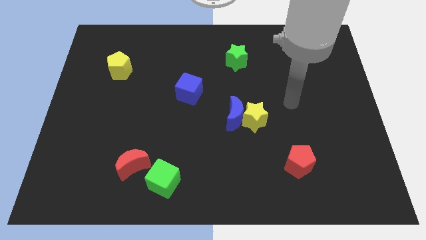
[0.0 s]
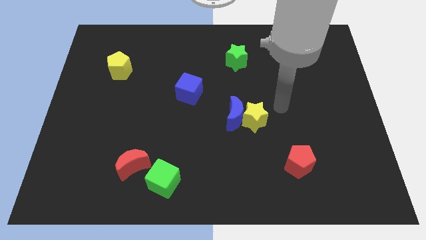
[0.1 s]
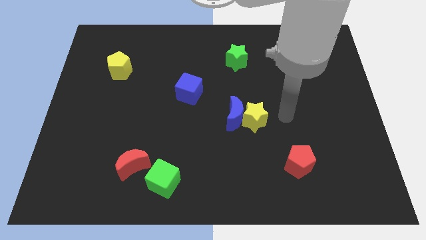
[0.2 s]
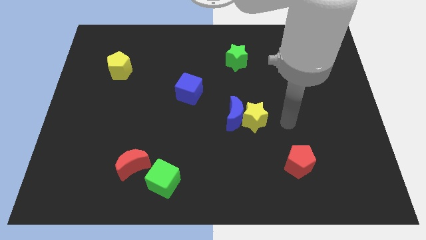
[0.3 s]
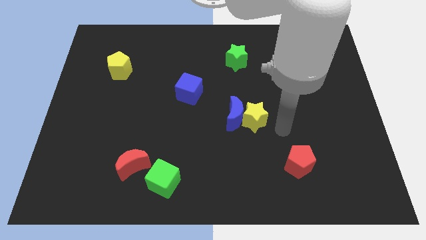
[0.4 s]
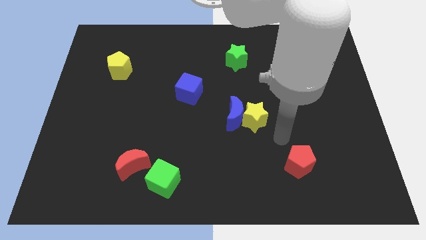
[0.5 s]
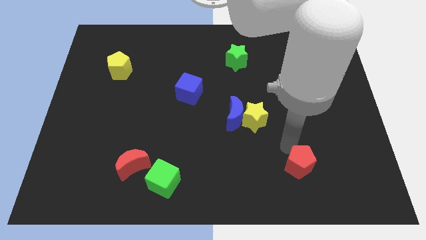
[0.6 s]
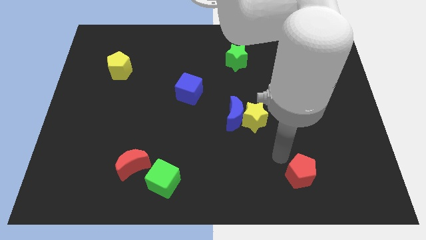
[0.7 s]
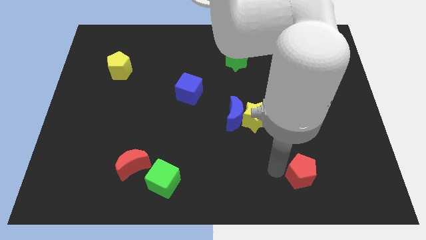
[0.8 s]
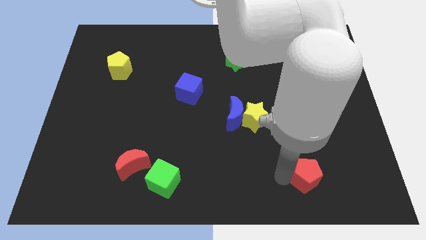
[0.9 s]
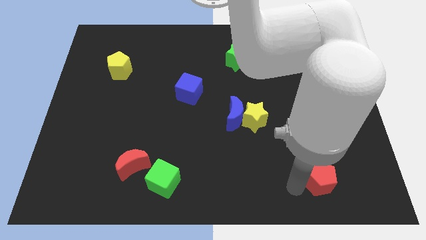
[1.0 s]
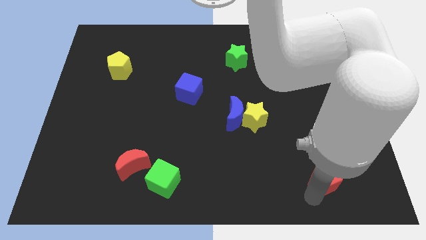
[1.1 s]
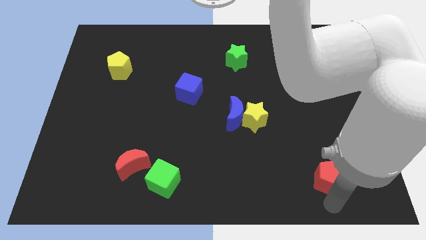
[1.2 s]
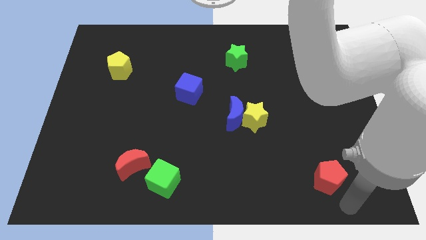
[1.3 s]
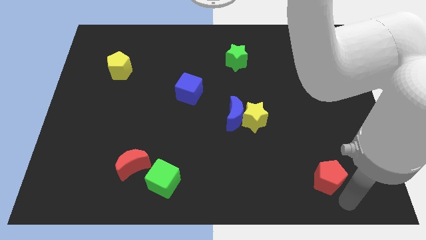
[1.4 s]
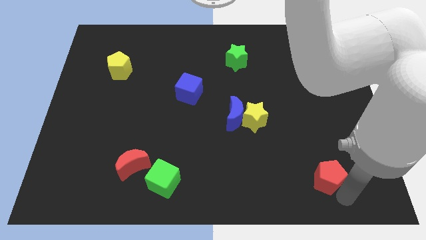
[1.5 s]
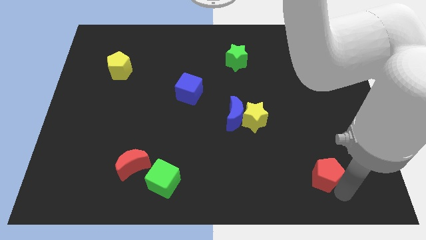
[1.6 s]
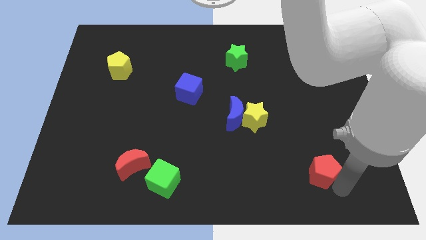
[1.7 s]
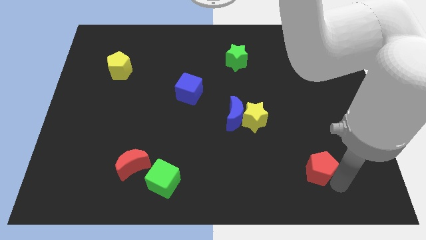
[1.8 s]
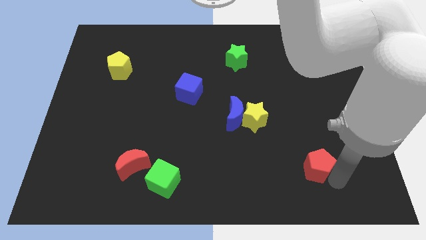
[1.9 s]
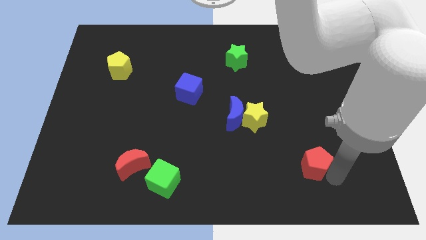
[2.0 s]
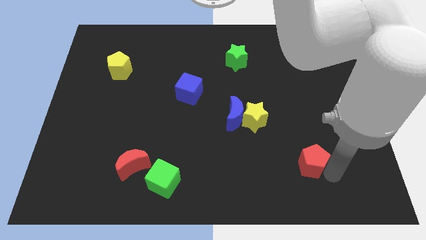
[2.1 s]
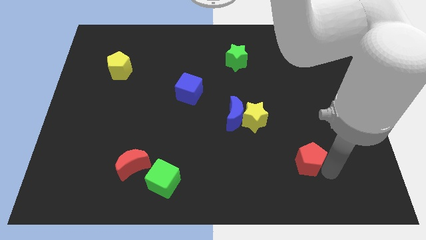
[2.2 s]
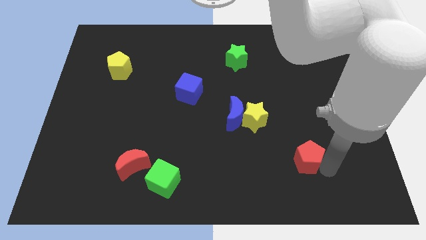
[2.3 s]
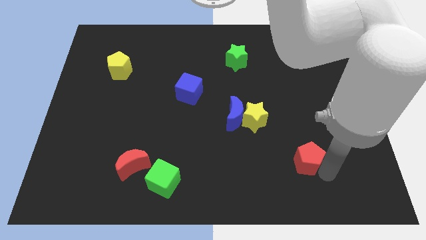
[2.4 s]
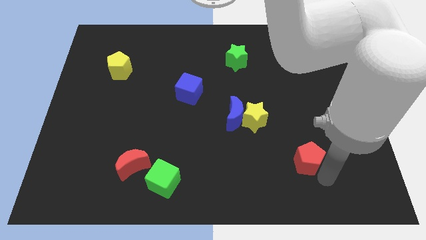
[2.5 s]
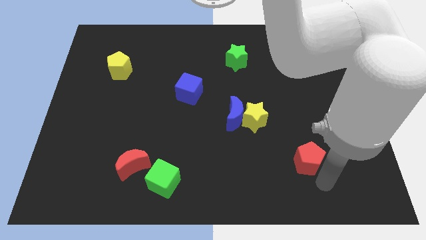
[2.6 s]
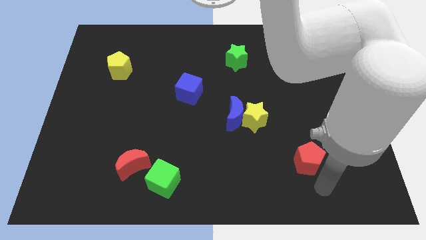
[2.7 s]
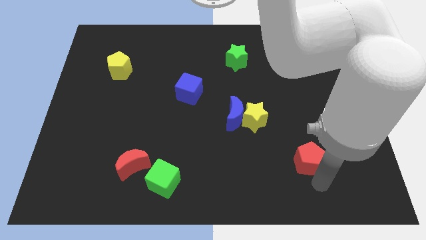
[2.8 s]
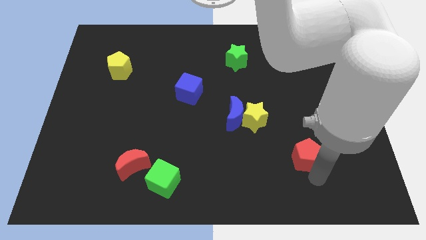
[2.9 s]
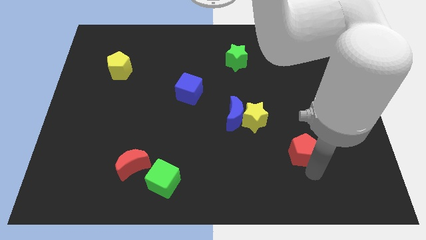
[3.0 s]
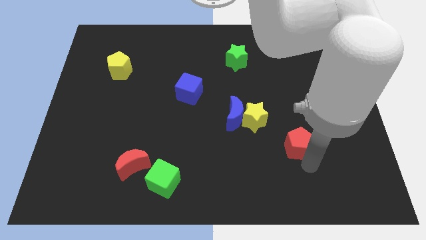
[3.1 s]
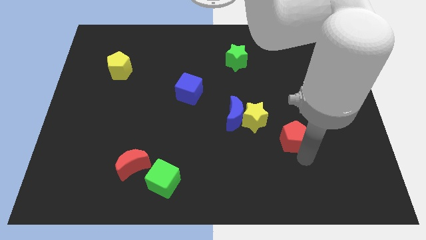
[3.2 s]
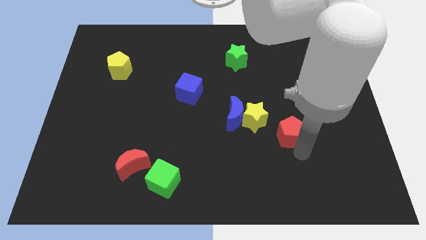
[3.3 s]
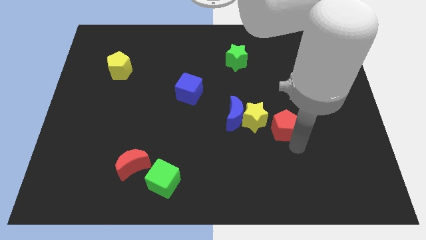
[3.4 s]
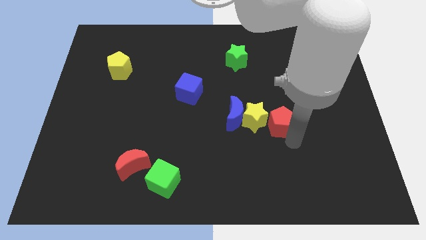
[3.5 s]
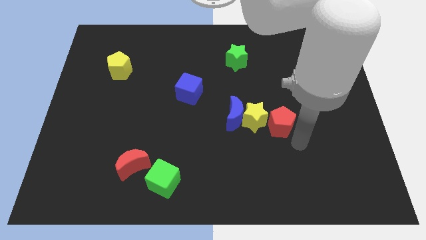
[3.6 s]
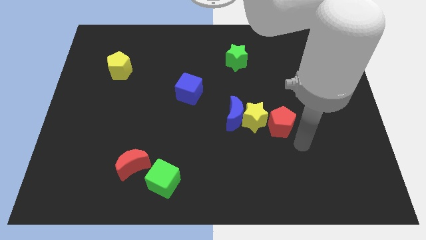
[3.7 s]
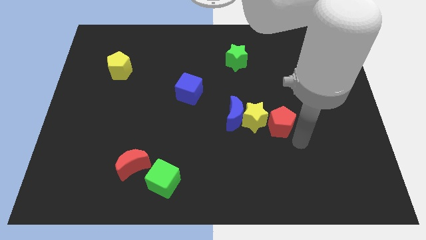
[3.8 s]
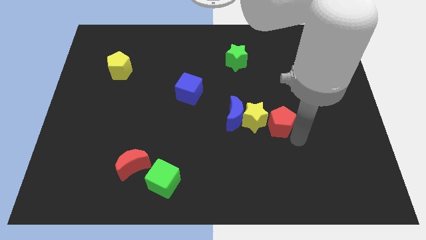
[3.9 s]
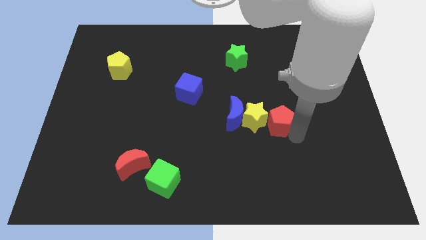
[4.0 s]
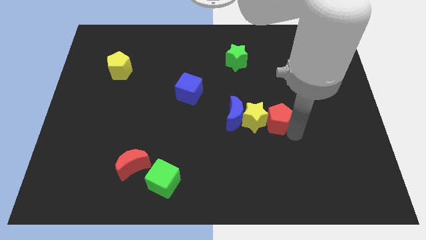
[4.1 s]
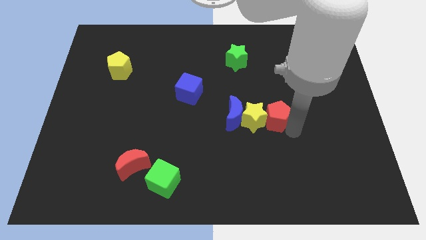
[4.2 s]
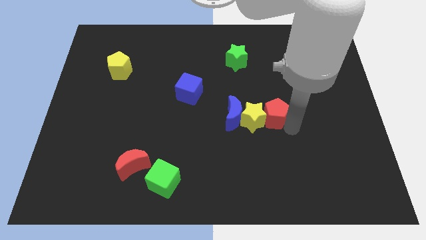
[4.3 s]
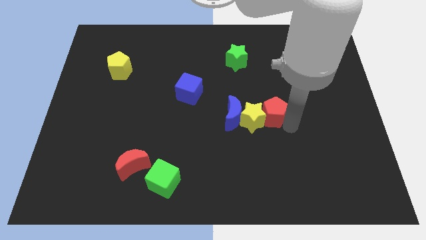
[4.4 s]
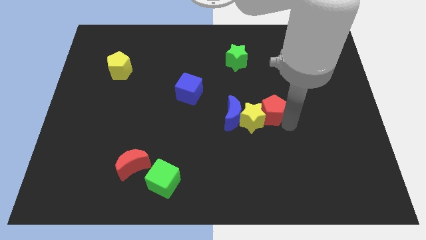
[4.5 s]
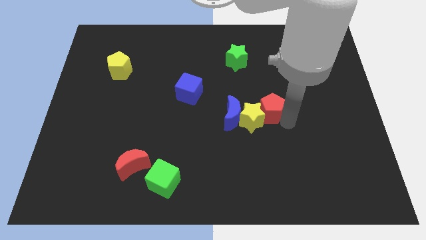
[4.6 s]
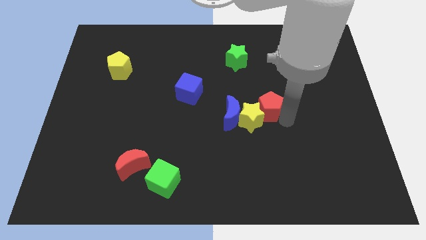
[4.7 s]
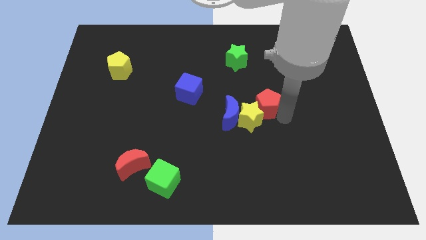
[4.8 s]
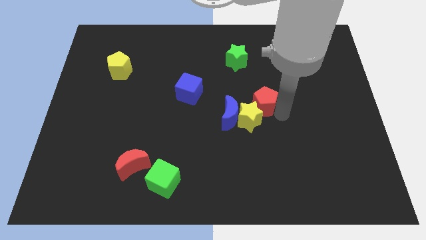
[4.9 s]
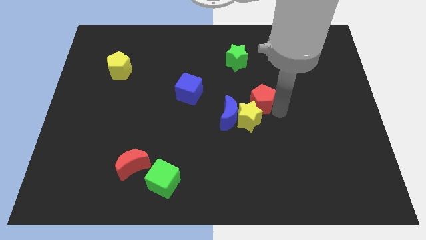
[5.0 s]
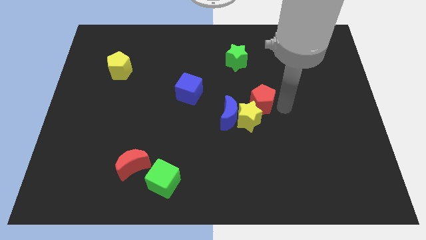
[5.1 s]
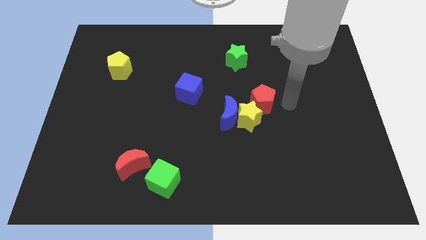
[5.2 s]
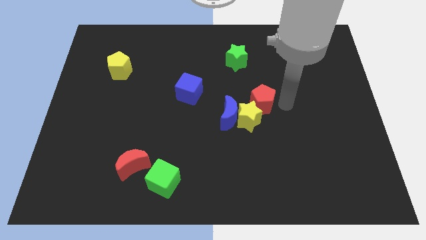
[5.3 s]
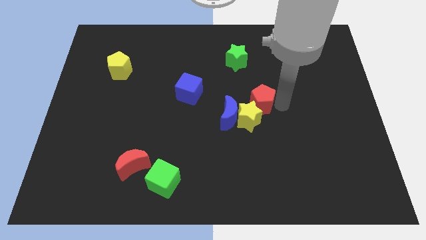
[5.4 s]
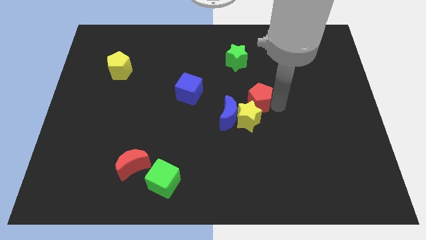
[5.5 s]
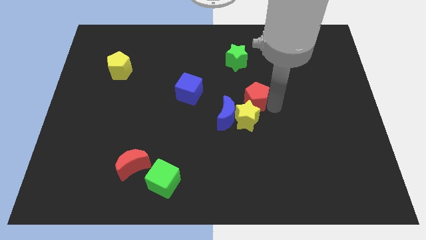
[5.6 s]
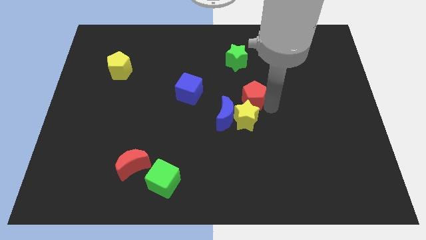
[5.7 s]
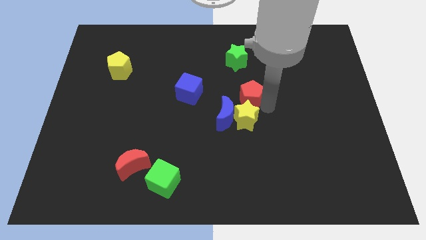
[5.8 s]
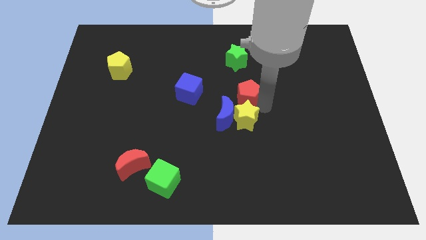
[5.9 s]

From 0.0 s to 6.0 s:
put the red pentagon diagonally up and to the left of the yellow star
